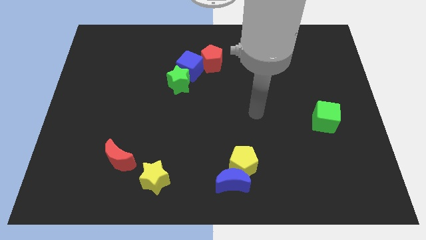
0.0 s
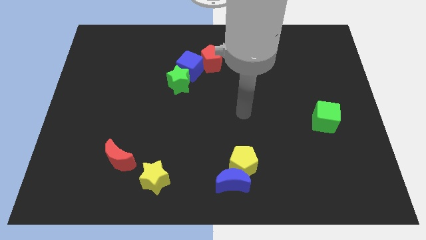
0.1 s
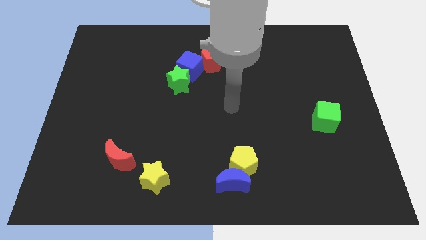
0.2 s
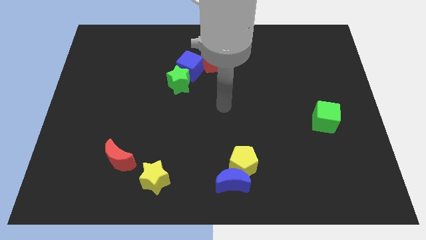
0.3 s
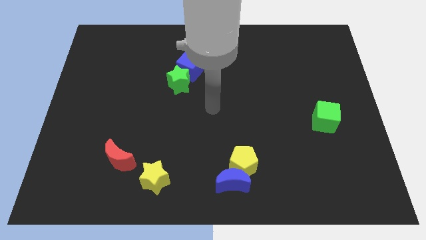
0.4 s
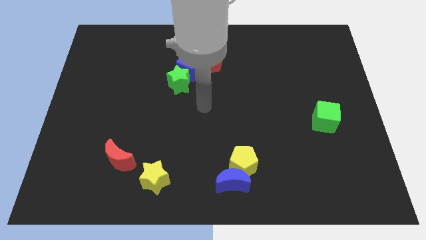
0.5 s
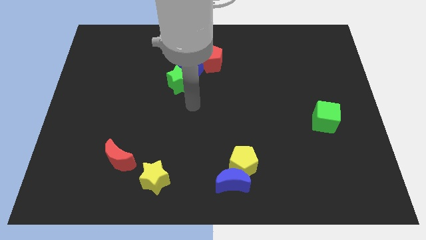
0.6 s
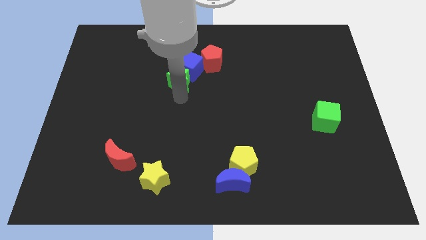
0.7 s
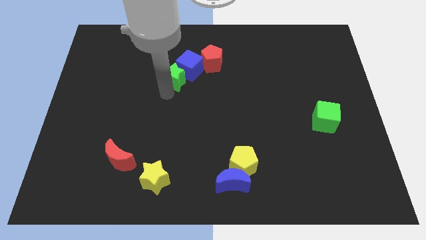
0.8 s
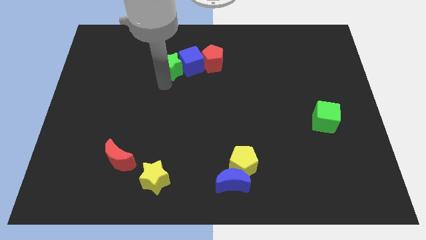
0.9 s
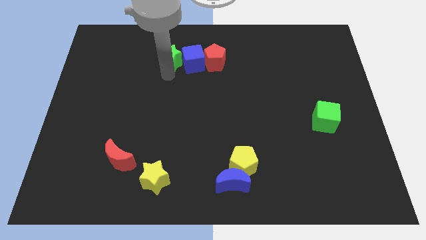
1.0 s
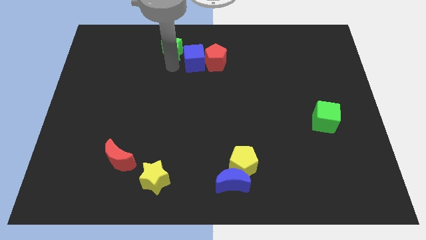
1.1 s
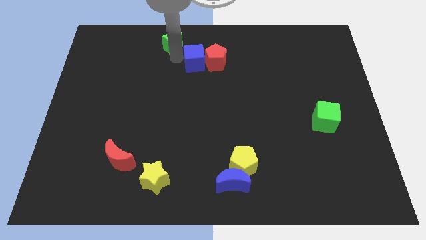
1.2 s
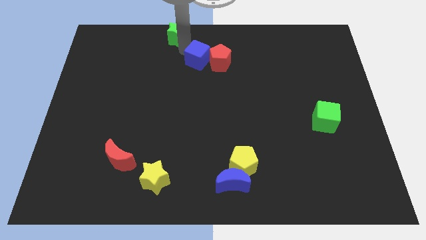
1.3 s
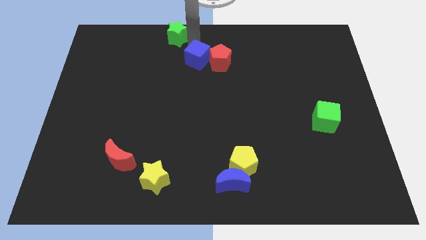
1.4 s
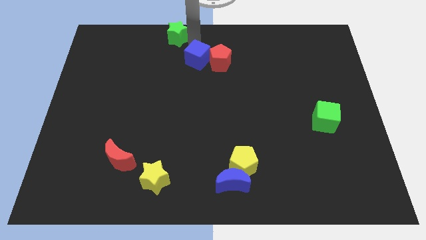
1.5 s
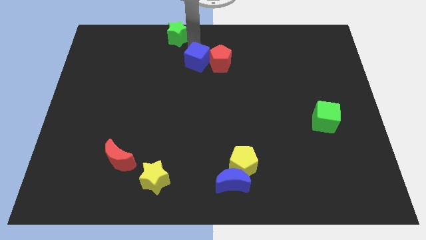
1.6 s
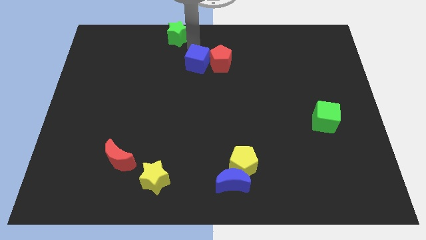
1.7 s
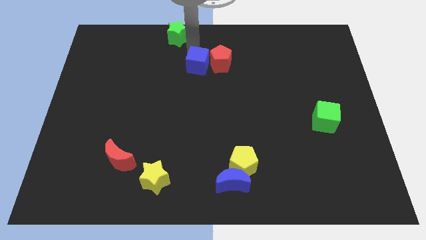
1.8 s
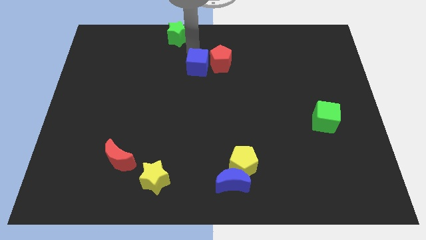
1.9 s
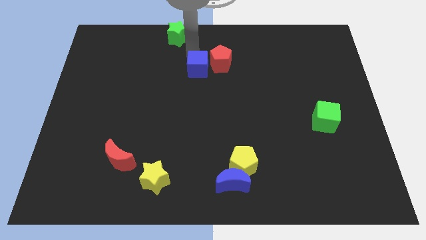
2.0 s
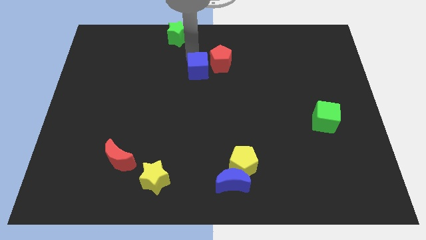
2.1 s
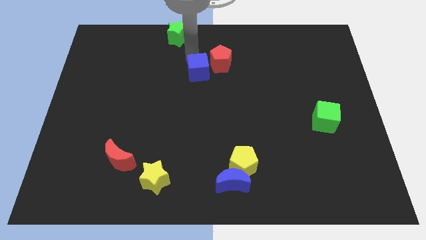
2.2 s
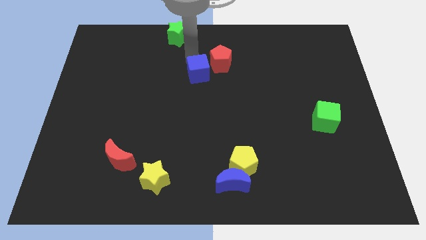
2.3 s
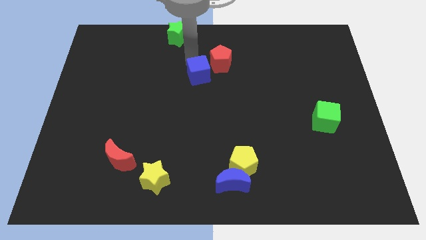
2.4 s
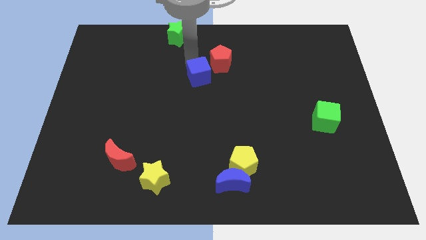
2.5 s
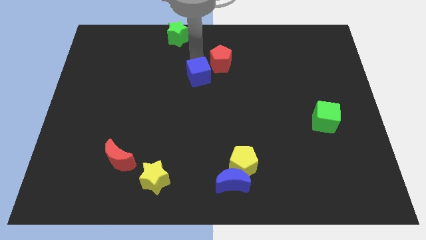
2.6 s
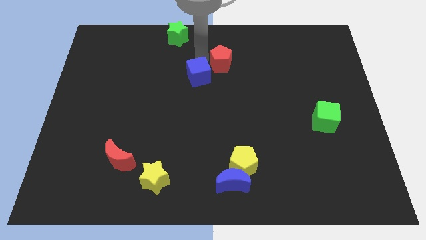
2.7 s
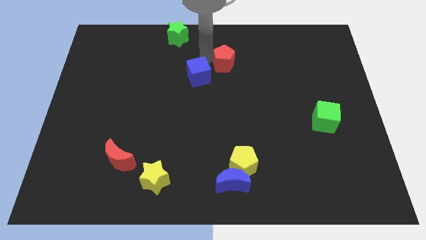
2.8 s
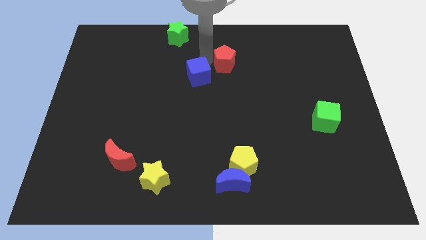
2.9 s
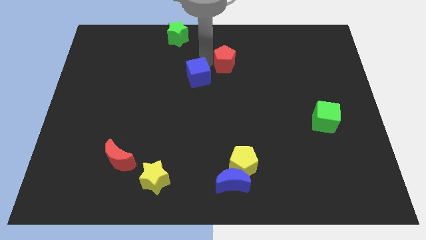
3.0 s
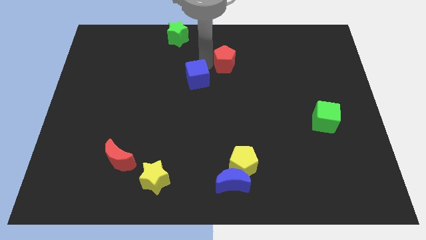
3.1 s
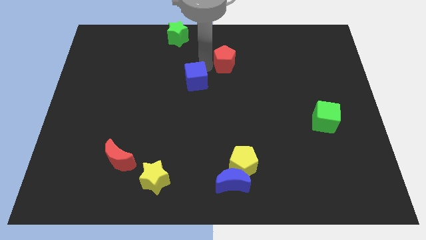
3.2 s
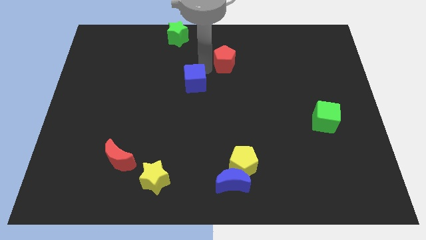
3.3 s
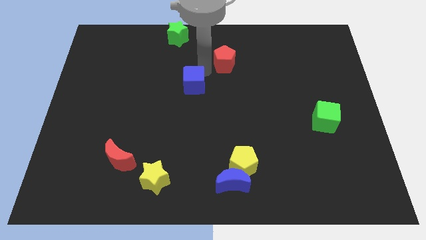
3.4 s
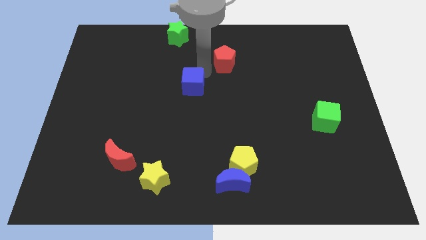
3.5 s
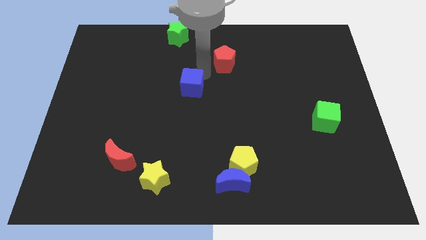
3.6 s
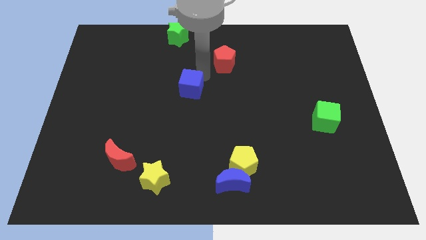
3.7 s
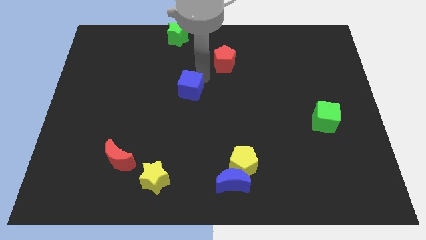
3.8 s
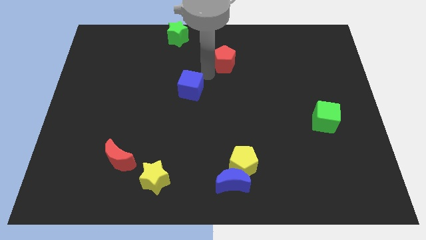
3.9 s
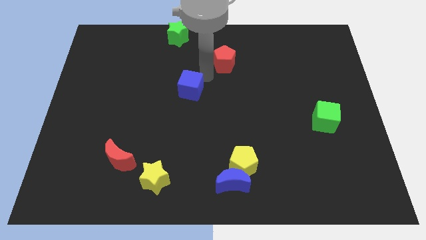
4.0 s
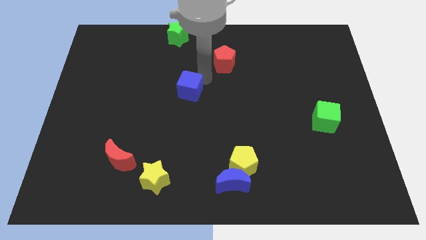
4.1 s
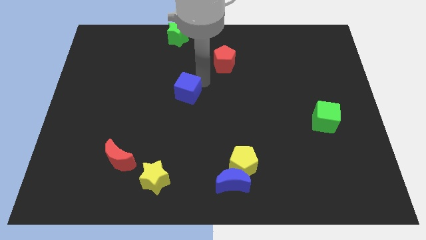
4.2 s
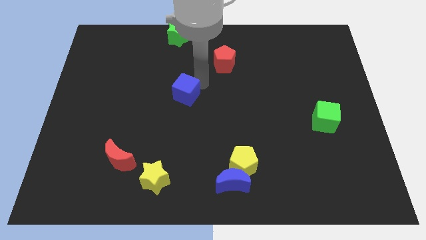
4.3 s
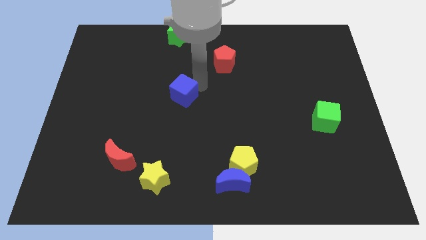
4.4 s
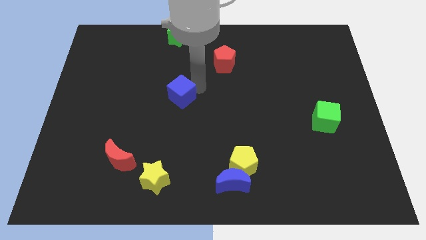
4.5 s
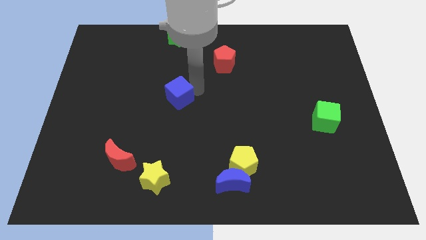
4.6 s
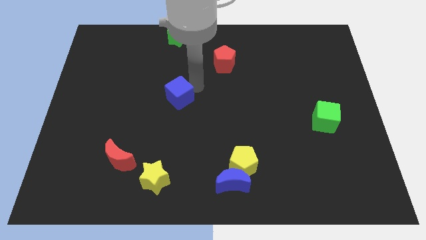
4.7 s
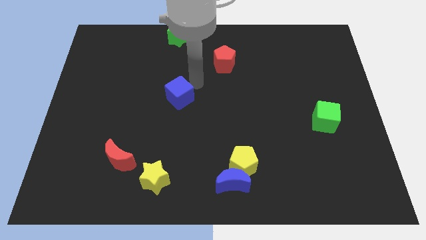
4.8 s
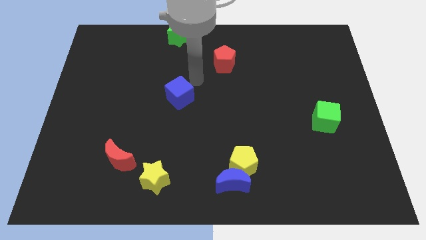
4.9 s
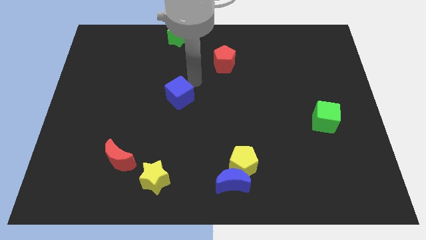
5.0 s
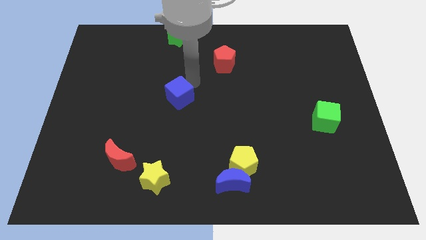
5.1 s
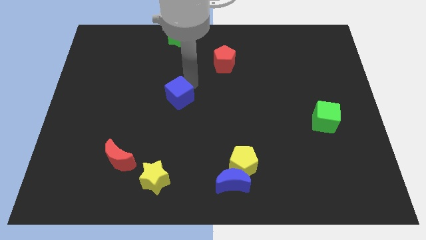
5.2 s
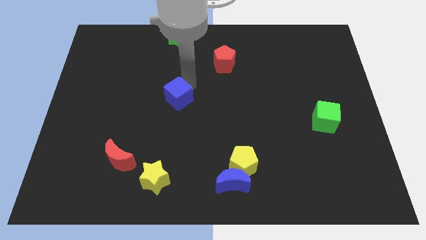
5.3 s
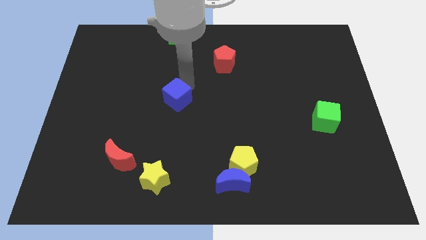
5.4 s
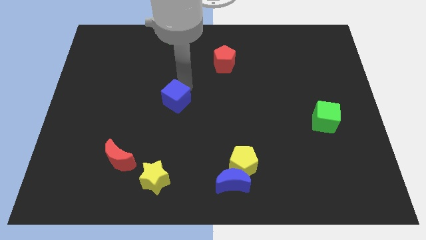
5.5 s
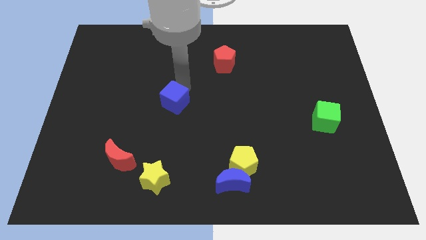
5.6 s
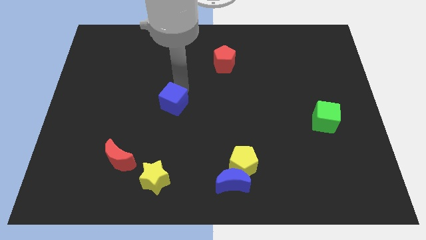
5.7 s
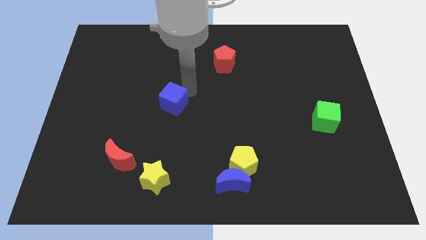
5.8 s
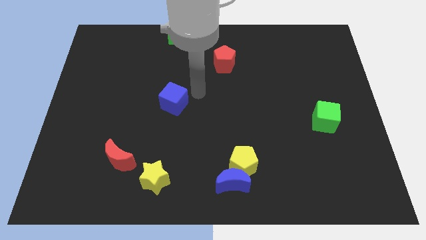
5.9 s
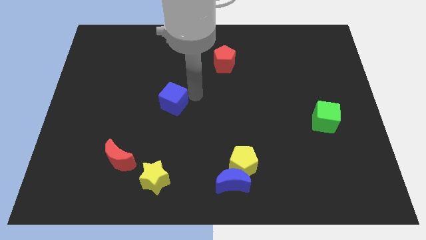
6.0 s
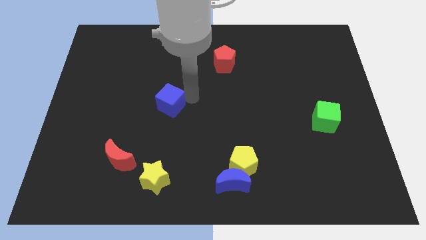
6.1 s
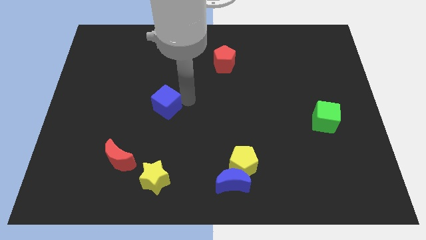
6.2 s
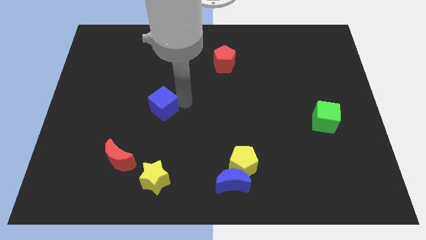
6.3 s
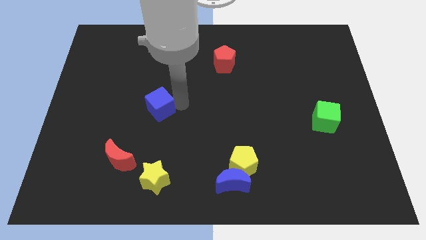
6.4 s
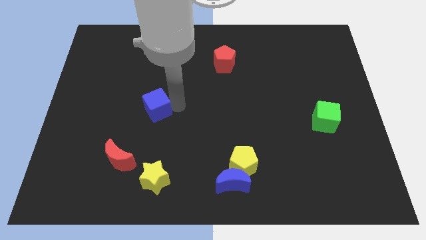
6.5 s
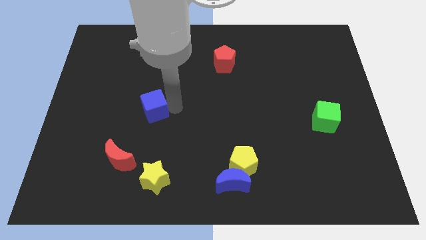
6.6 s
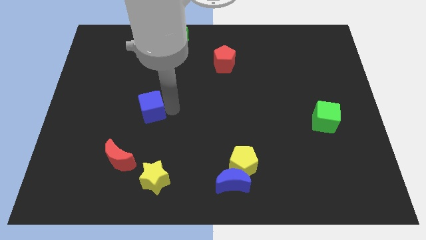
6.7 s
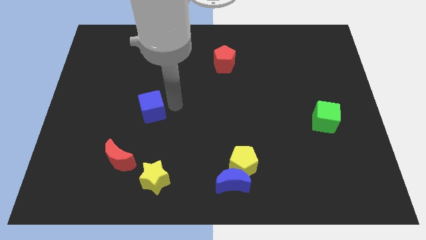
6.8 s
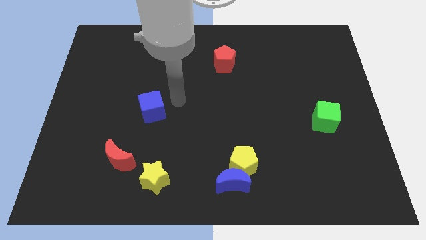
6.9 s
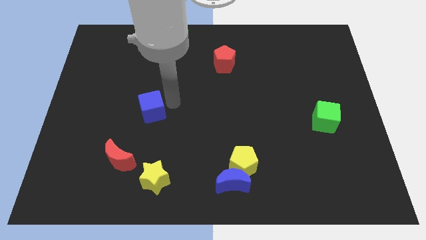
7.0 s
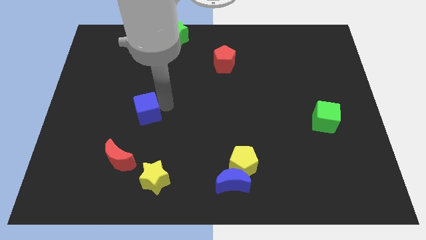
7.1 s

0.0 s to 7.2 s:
put the blue cube to the top of the red moon
